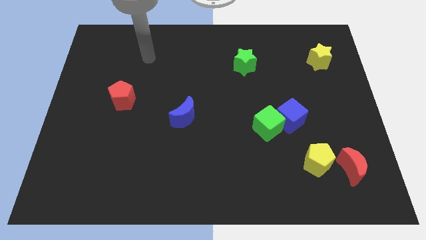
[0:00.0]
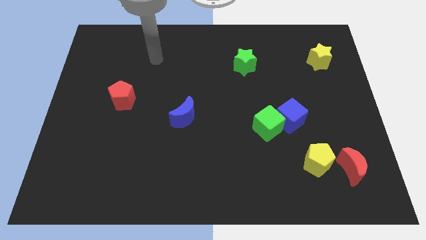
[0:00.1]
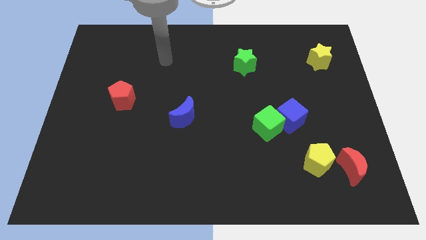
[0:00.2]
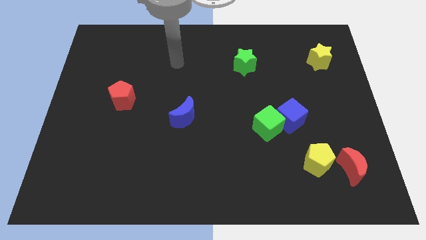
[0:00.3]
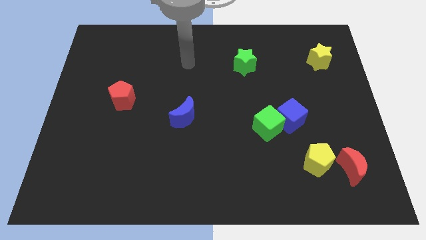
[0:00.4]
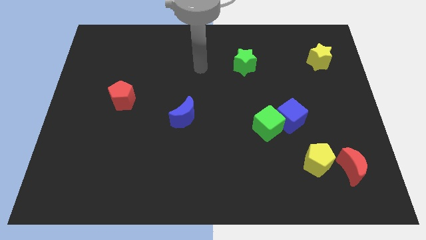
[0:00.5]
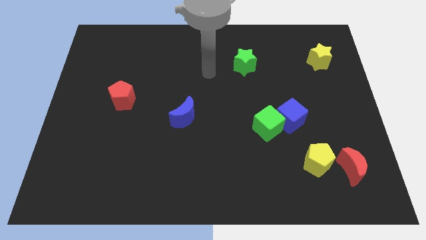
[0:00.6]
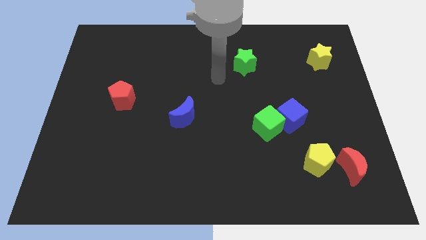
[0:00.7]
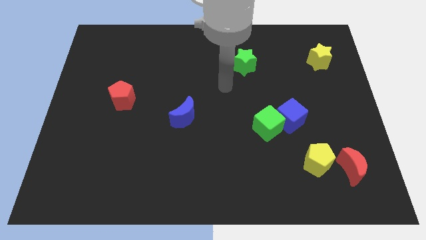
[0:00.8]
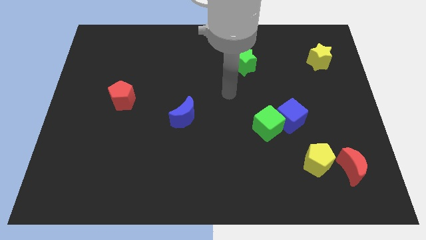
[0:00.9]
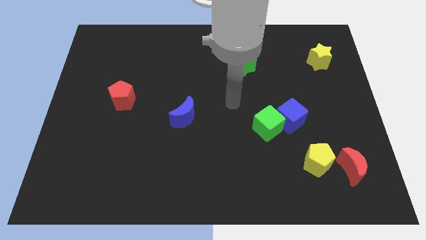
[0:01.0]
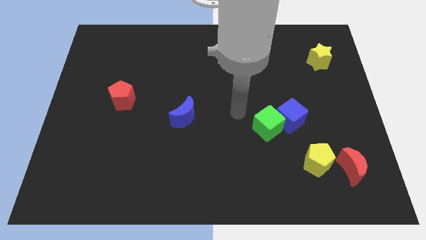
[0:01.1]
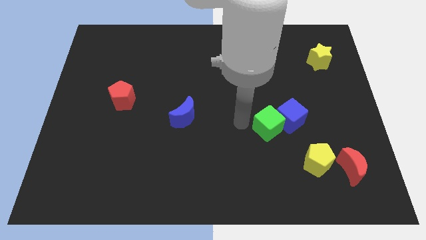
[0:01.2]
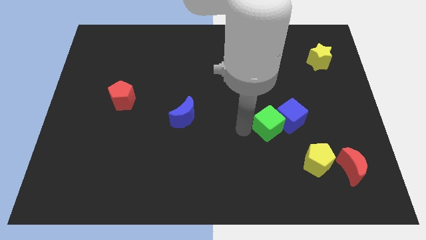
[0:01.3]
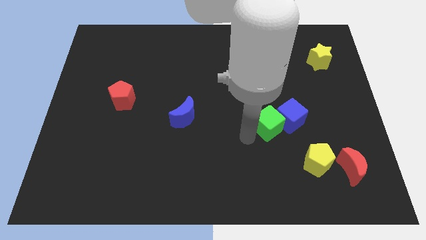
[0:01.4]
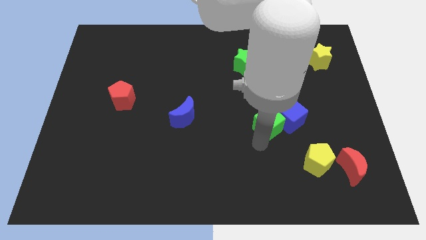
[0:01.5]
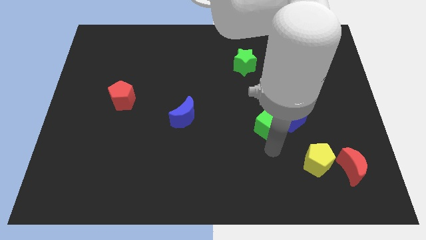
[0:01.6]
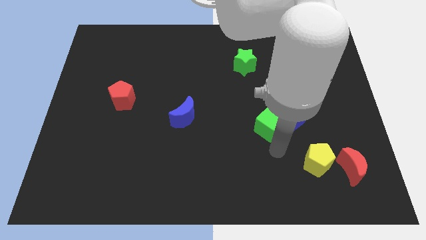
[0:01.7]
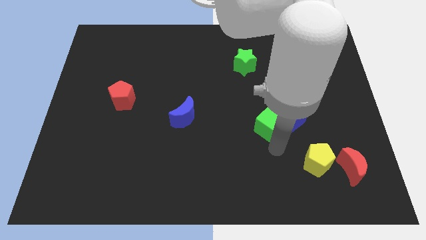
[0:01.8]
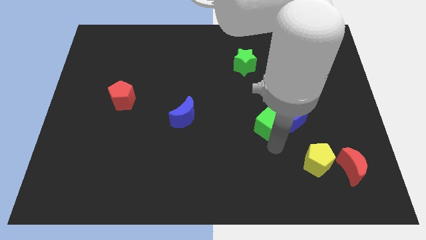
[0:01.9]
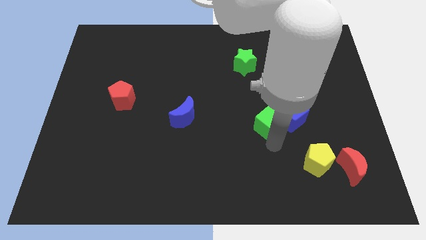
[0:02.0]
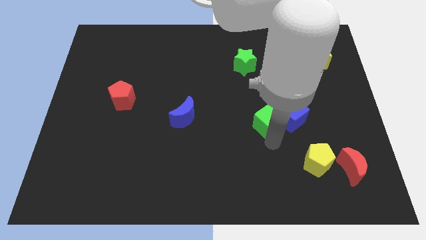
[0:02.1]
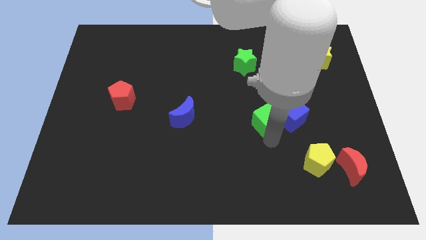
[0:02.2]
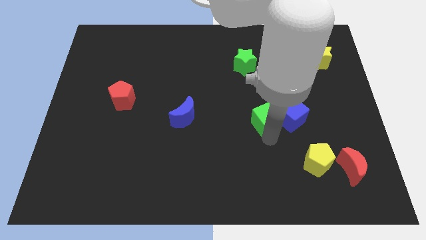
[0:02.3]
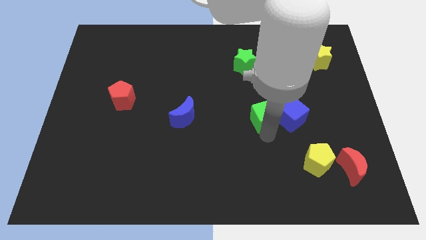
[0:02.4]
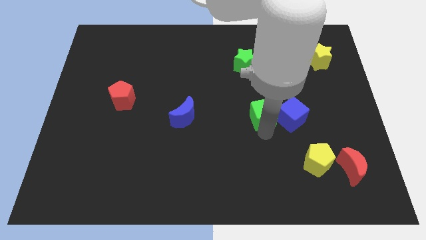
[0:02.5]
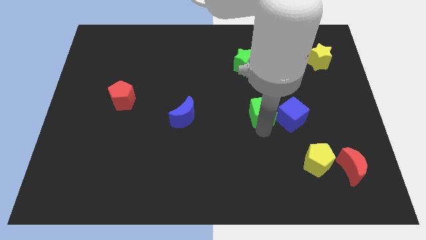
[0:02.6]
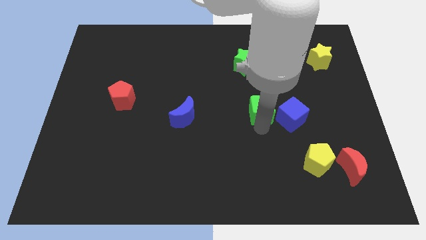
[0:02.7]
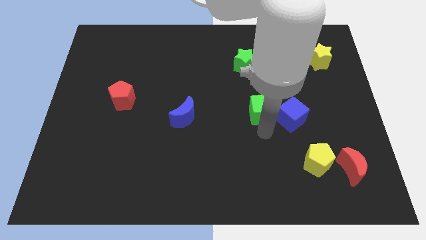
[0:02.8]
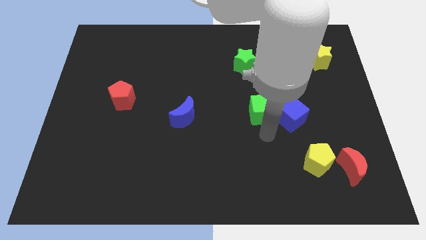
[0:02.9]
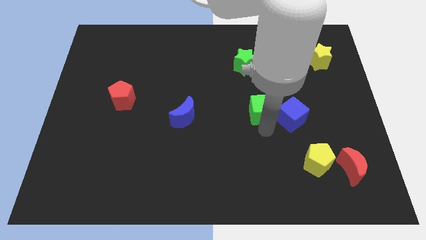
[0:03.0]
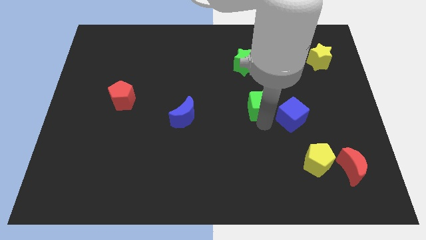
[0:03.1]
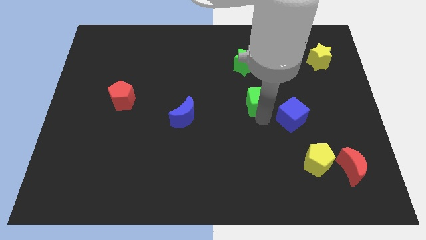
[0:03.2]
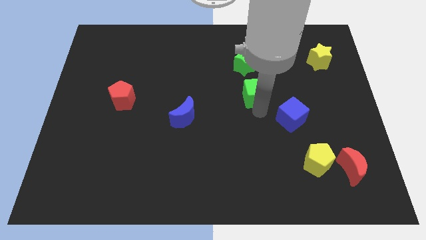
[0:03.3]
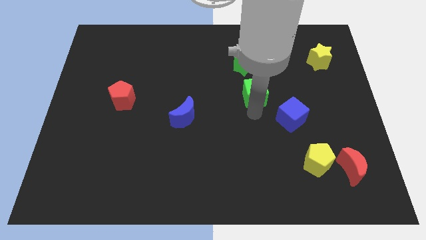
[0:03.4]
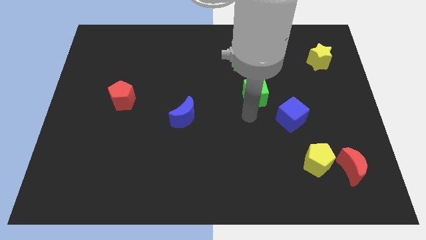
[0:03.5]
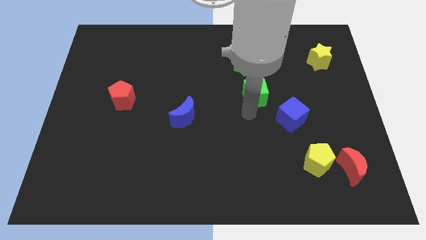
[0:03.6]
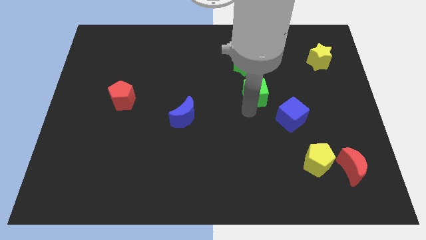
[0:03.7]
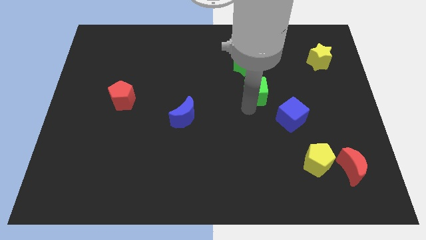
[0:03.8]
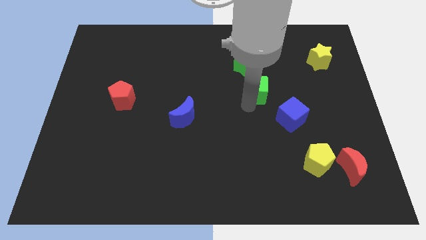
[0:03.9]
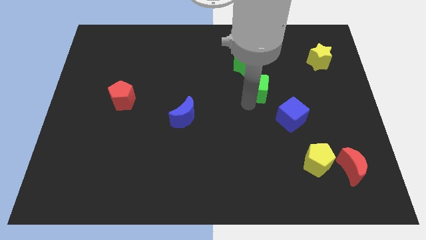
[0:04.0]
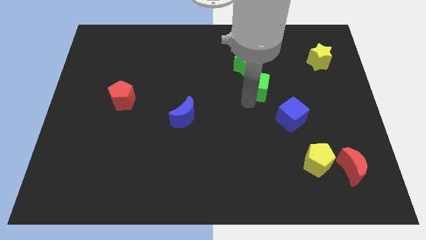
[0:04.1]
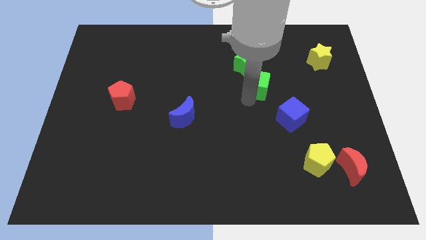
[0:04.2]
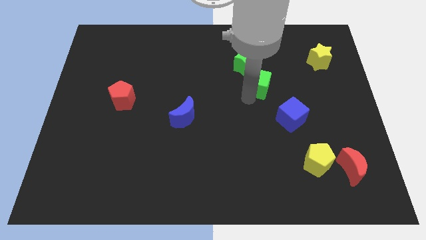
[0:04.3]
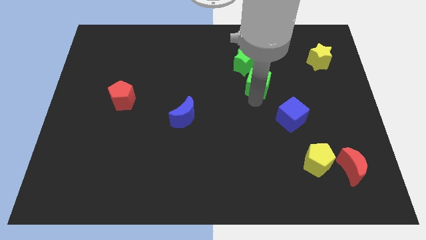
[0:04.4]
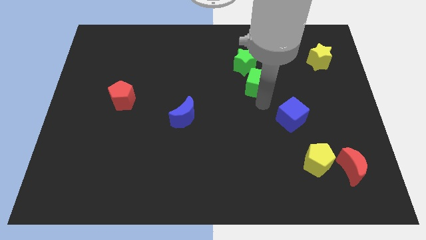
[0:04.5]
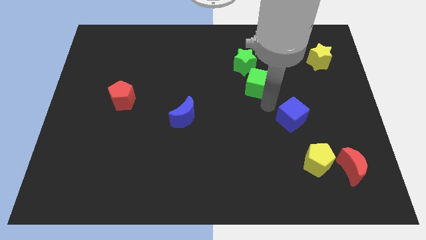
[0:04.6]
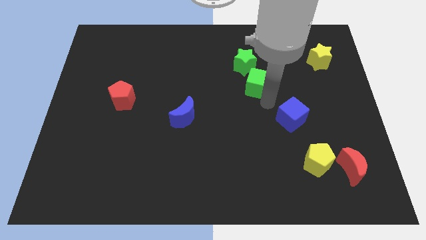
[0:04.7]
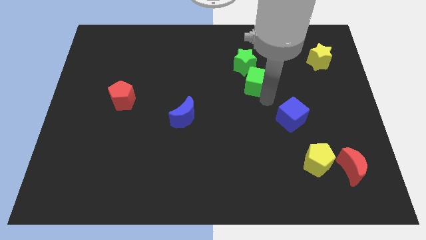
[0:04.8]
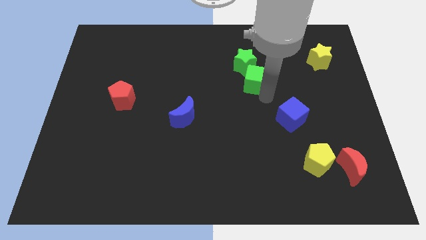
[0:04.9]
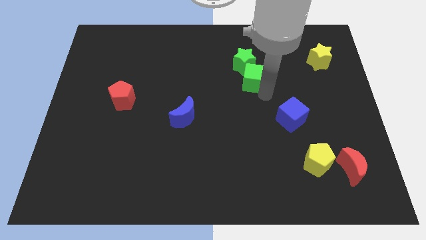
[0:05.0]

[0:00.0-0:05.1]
put the green cube towards the green star

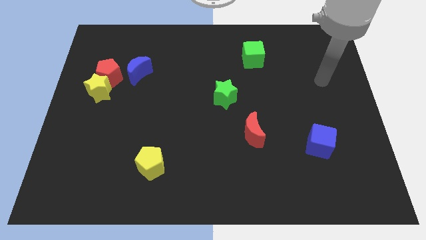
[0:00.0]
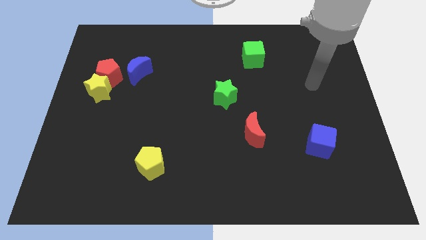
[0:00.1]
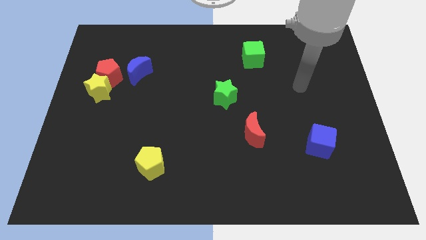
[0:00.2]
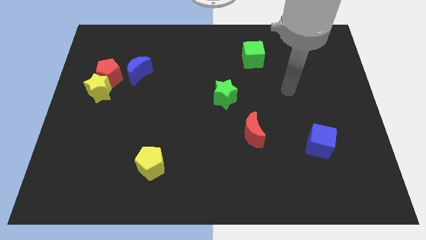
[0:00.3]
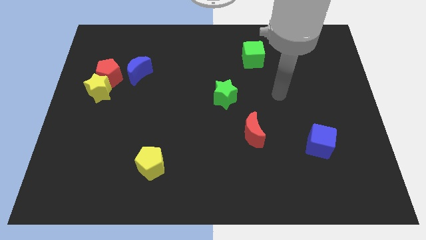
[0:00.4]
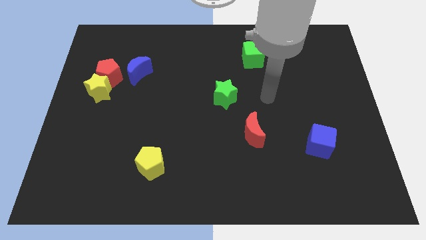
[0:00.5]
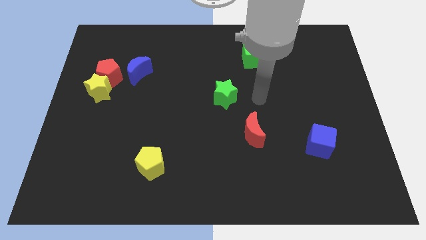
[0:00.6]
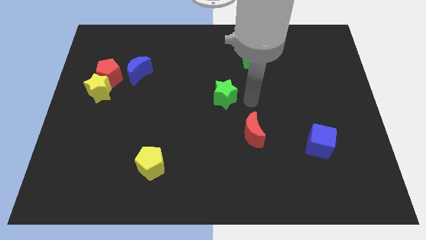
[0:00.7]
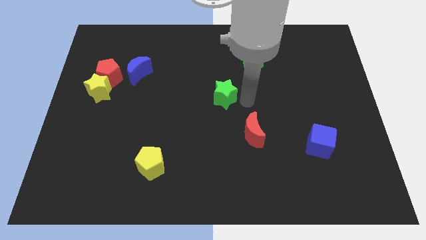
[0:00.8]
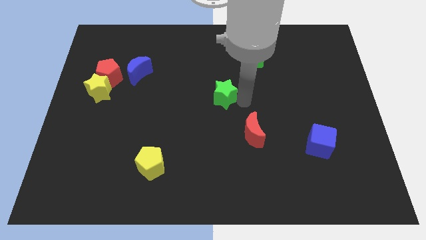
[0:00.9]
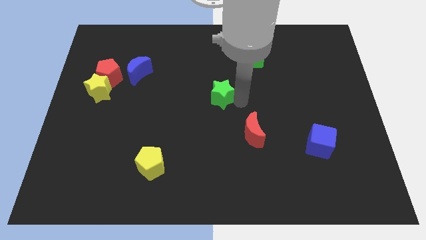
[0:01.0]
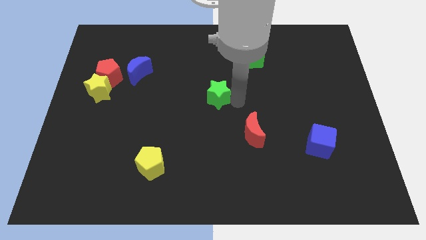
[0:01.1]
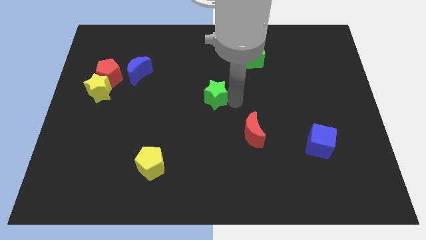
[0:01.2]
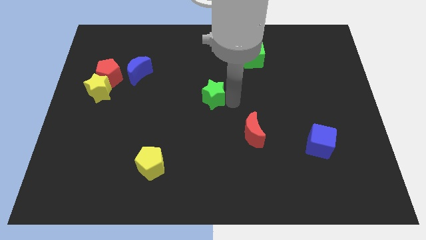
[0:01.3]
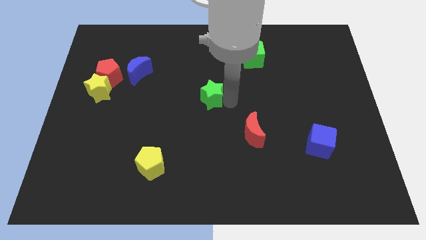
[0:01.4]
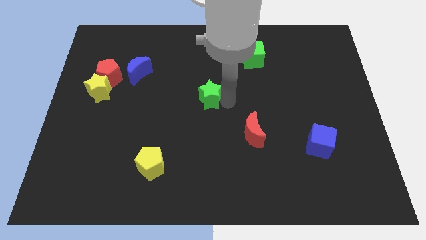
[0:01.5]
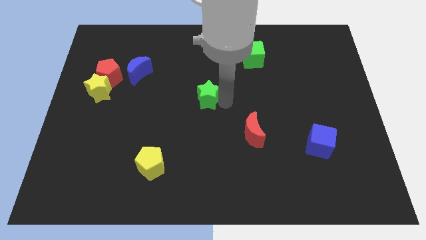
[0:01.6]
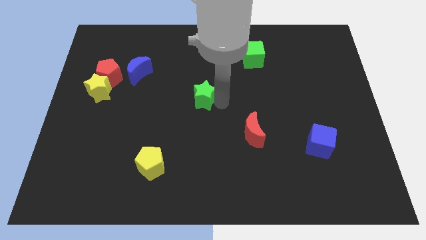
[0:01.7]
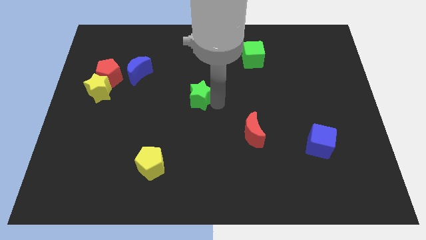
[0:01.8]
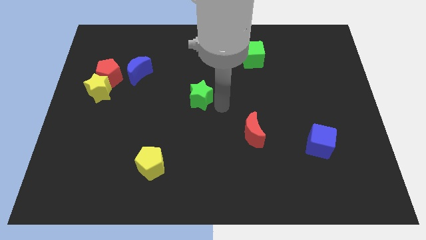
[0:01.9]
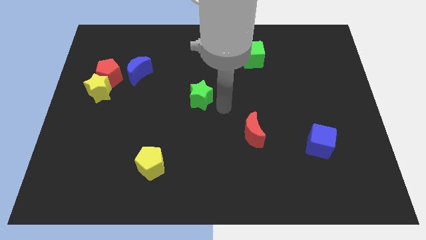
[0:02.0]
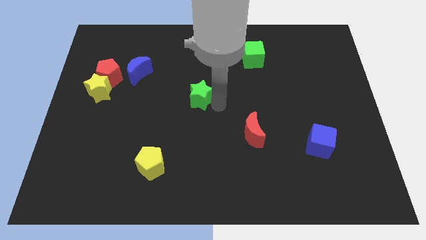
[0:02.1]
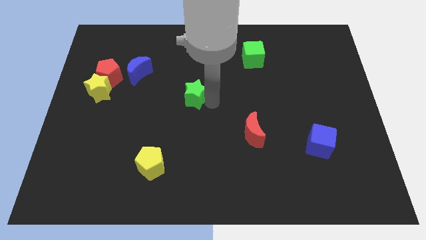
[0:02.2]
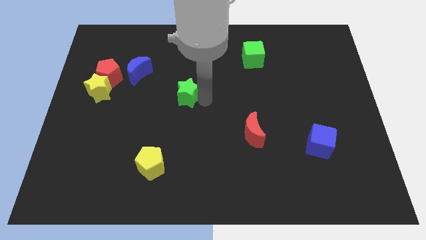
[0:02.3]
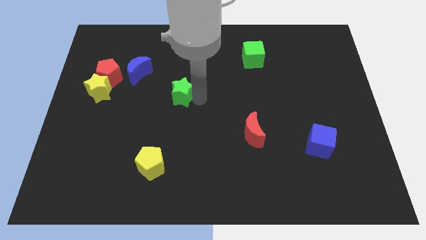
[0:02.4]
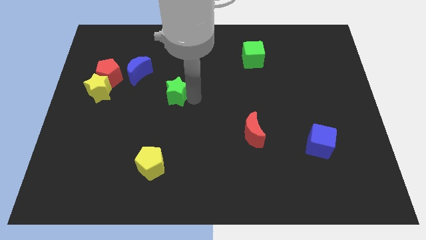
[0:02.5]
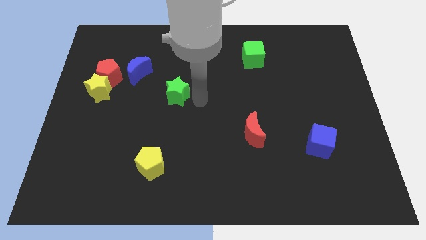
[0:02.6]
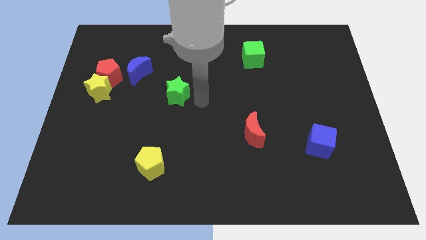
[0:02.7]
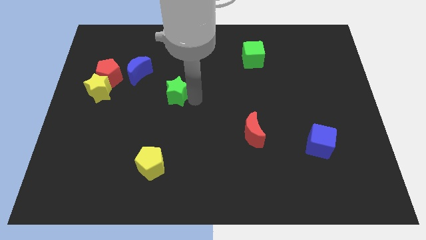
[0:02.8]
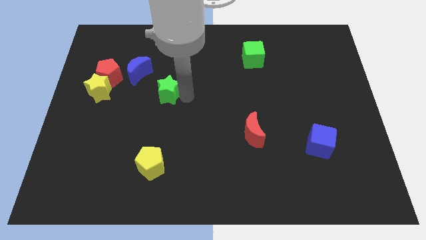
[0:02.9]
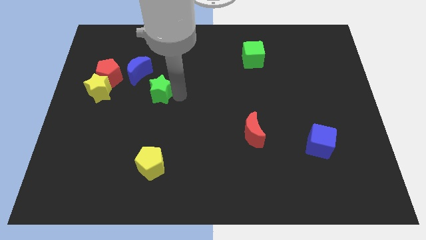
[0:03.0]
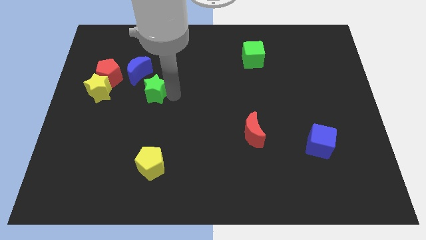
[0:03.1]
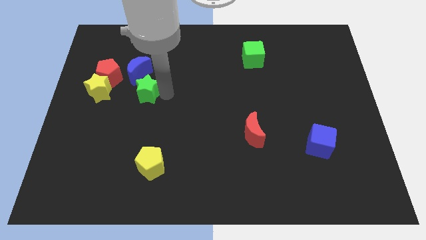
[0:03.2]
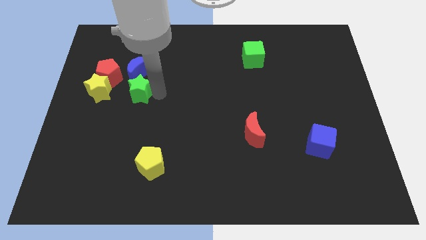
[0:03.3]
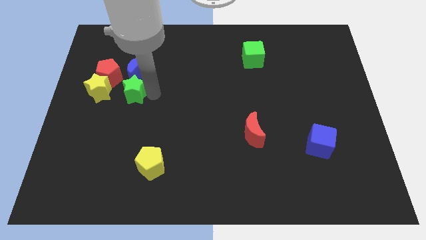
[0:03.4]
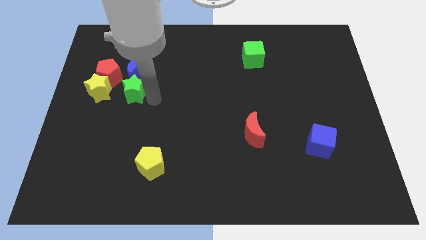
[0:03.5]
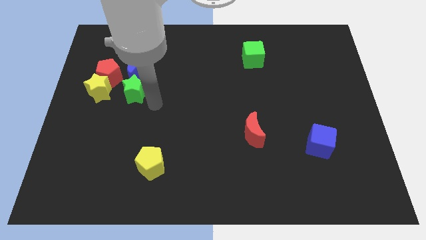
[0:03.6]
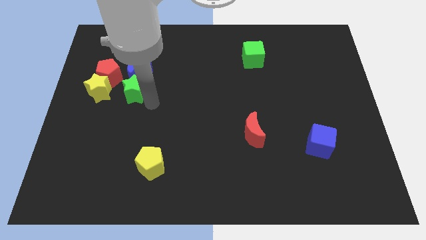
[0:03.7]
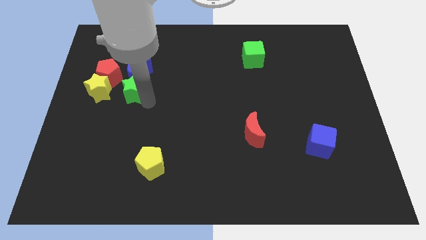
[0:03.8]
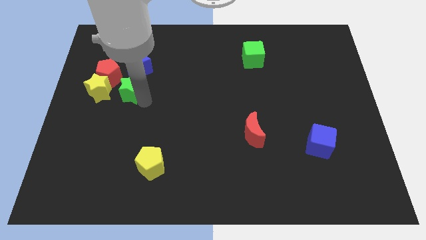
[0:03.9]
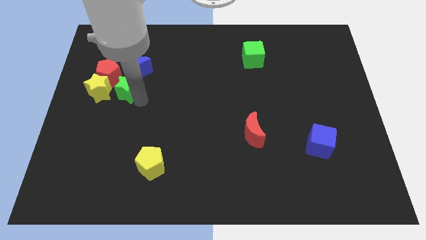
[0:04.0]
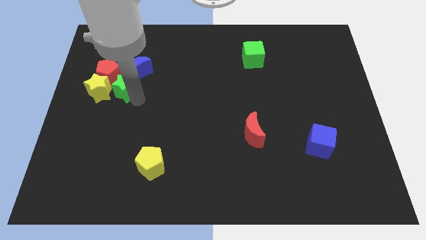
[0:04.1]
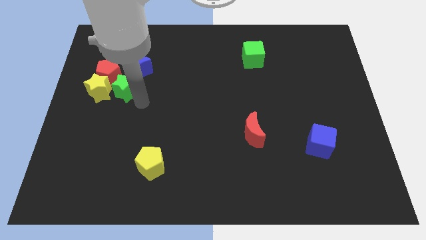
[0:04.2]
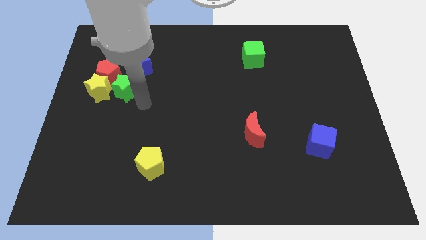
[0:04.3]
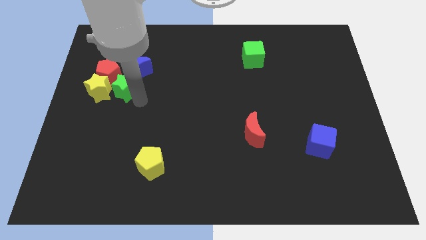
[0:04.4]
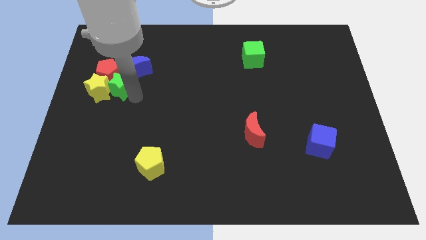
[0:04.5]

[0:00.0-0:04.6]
push the green star close to the red pentagon
